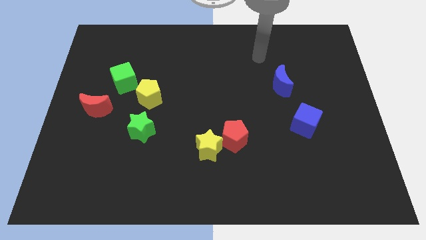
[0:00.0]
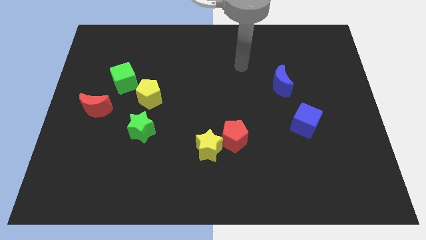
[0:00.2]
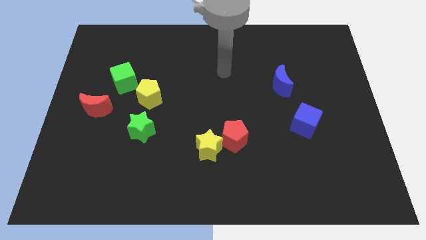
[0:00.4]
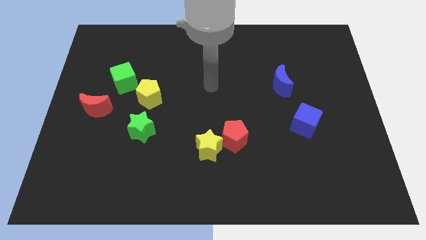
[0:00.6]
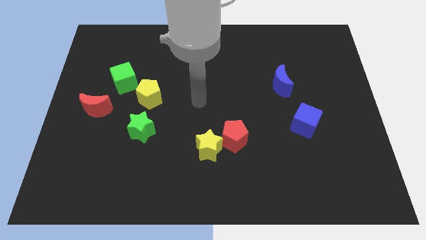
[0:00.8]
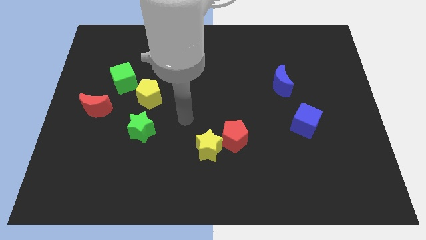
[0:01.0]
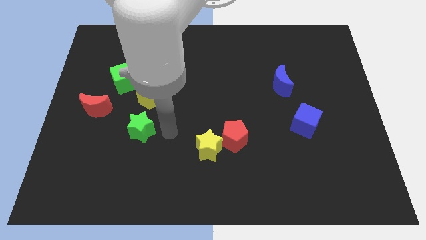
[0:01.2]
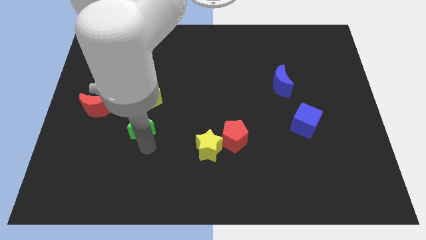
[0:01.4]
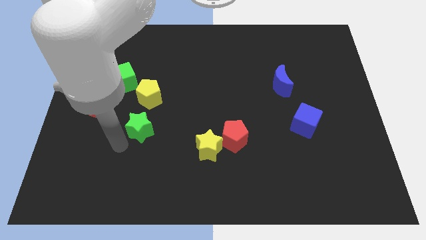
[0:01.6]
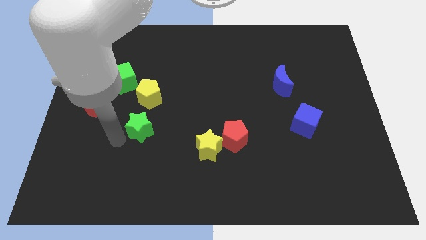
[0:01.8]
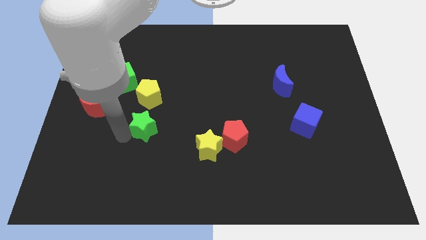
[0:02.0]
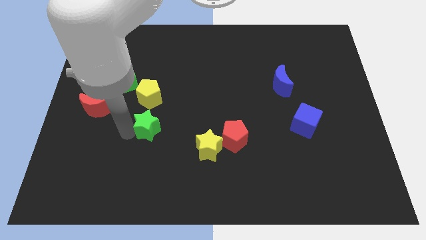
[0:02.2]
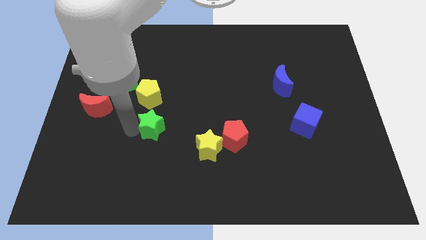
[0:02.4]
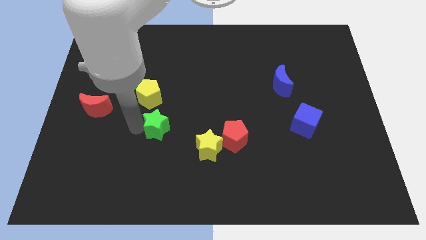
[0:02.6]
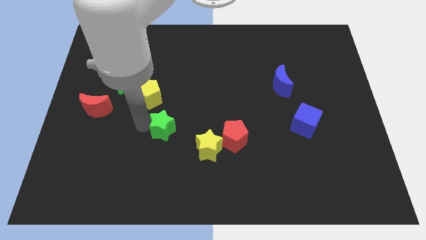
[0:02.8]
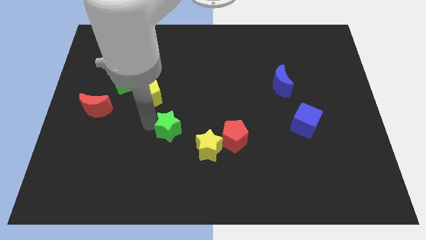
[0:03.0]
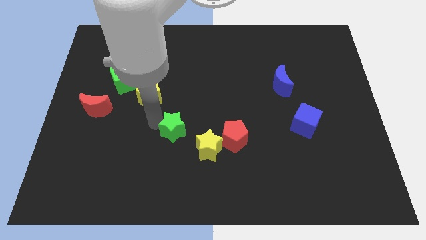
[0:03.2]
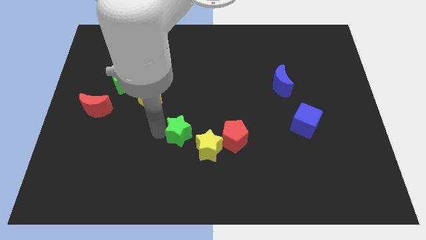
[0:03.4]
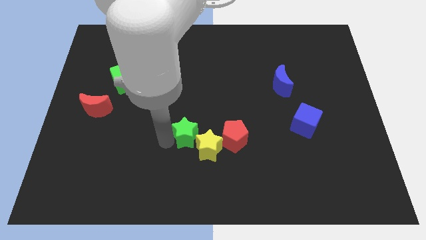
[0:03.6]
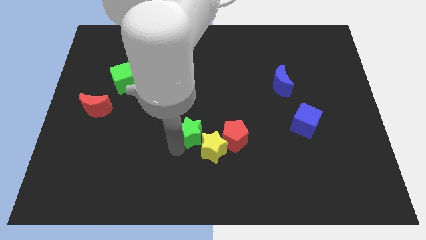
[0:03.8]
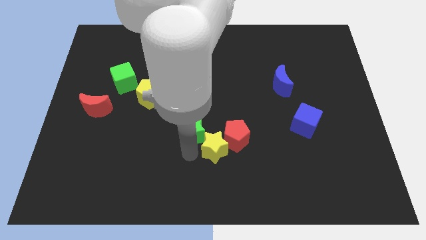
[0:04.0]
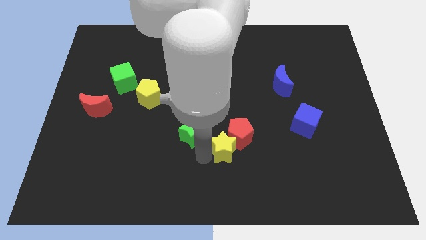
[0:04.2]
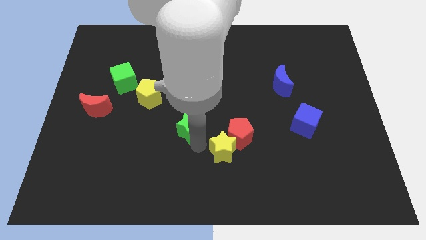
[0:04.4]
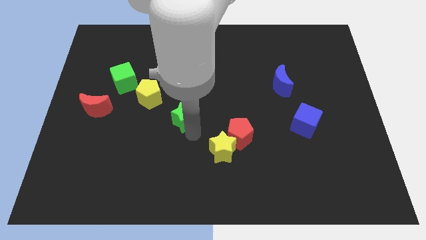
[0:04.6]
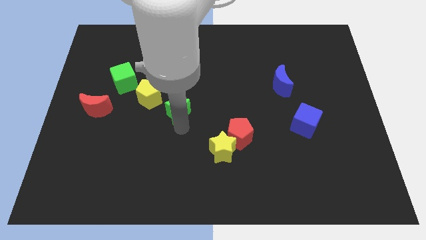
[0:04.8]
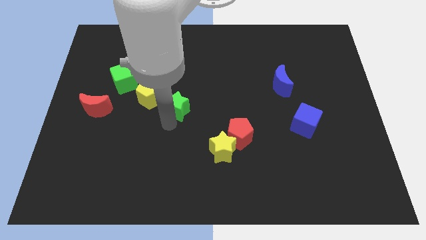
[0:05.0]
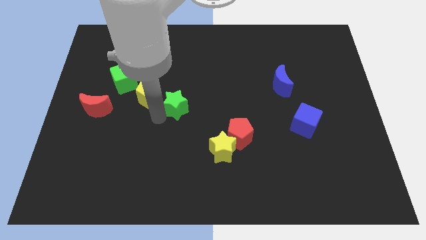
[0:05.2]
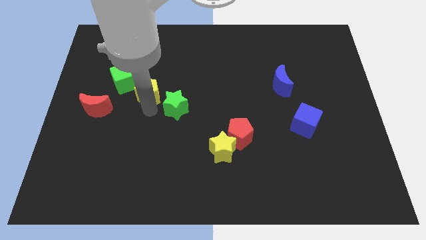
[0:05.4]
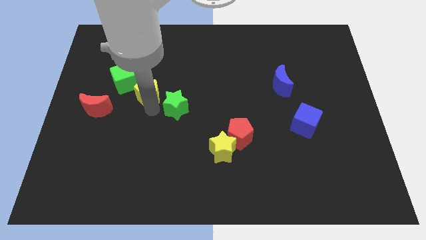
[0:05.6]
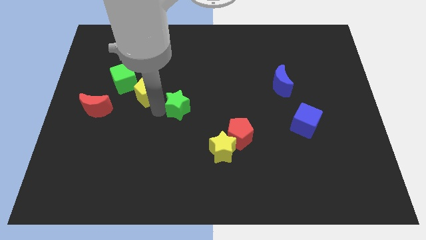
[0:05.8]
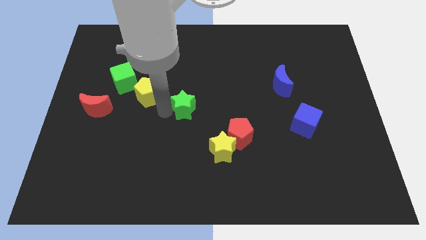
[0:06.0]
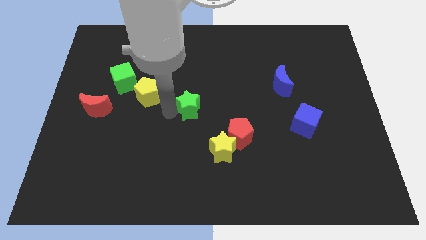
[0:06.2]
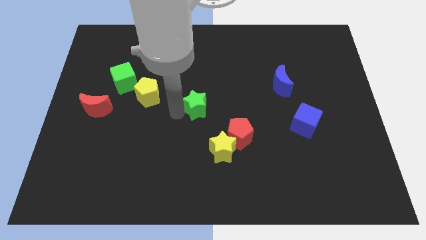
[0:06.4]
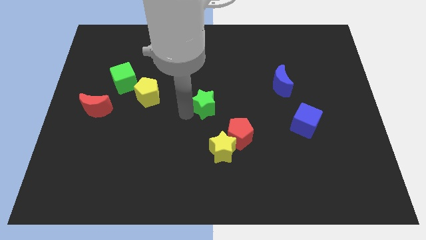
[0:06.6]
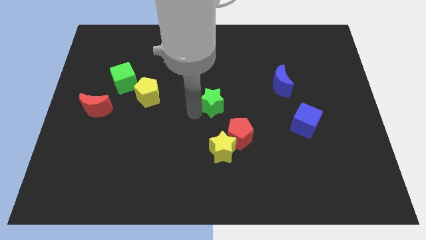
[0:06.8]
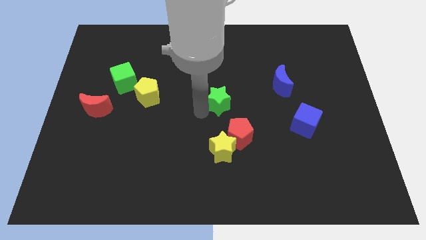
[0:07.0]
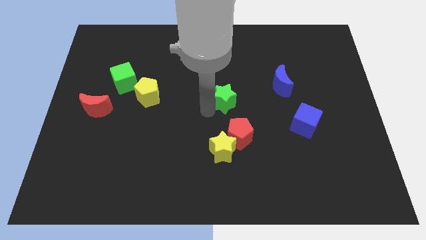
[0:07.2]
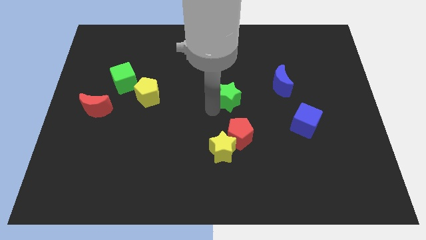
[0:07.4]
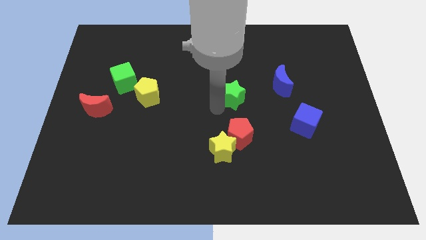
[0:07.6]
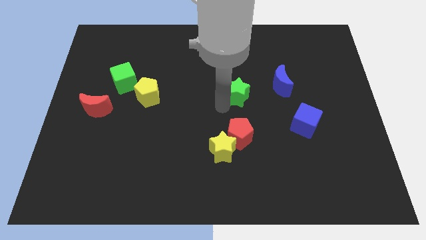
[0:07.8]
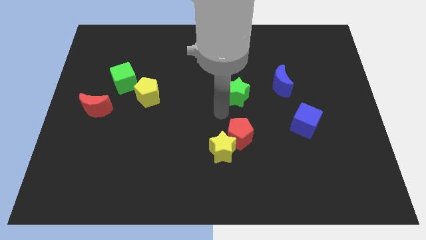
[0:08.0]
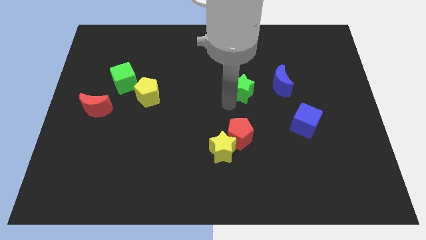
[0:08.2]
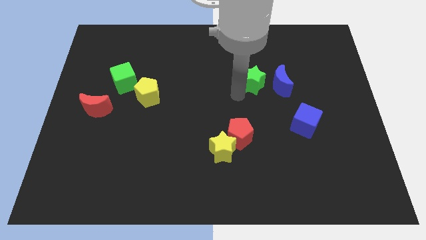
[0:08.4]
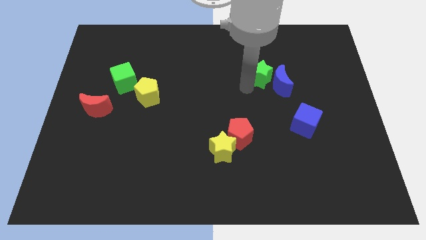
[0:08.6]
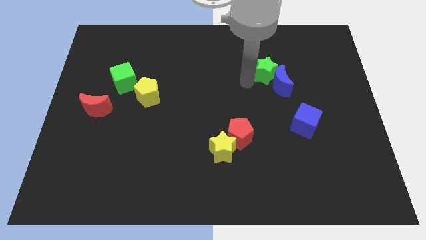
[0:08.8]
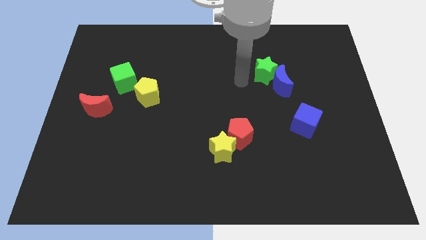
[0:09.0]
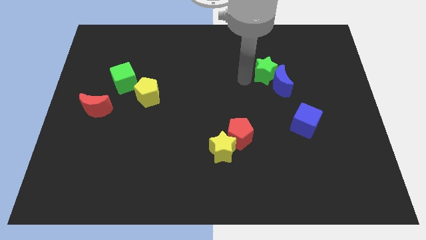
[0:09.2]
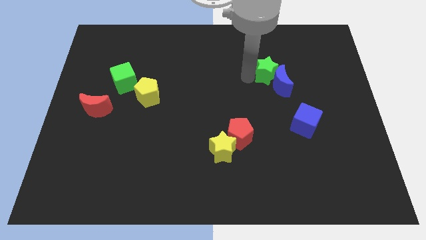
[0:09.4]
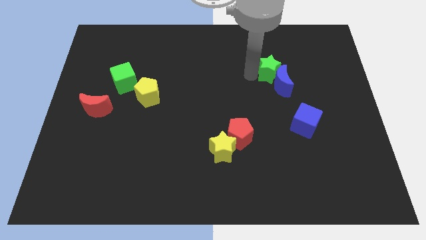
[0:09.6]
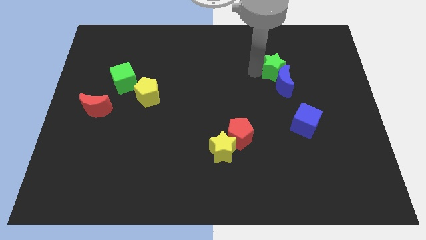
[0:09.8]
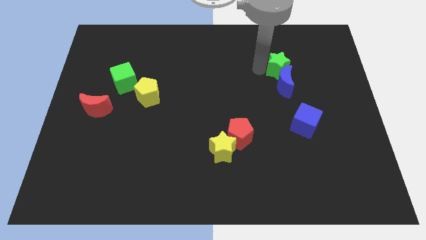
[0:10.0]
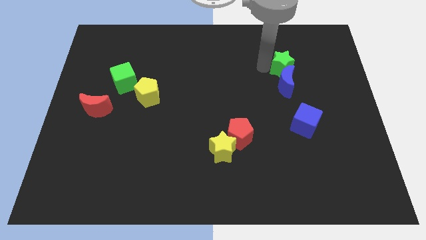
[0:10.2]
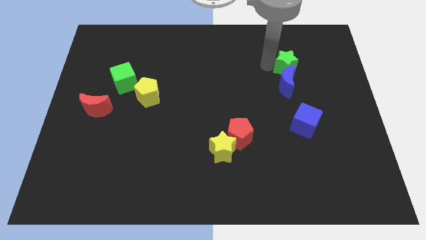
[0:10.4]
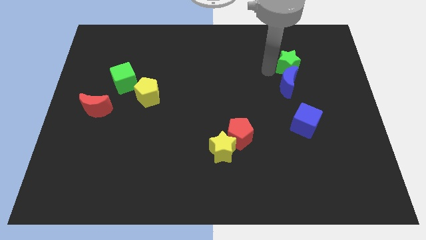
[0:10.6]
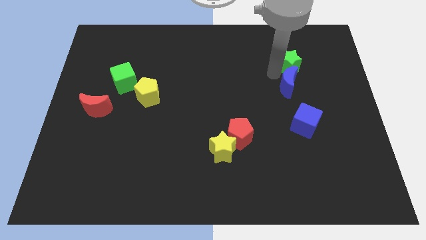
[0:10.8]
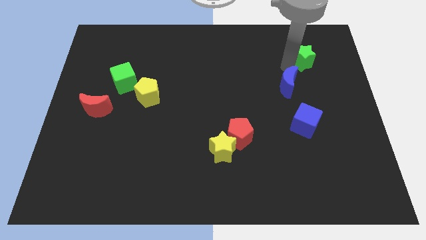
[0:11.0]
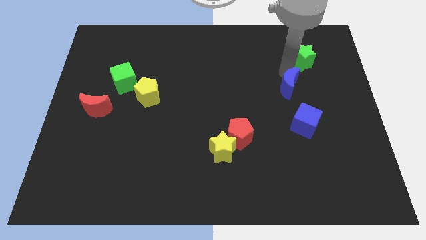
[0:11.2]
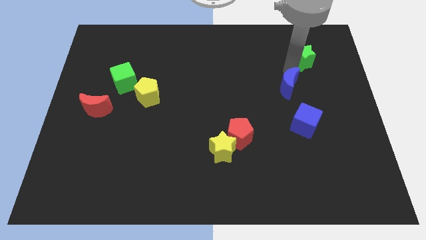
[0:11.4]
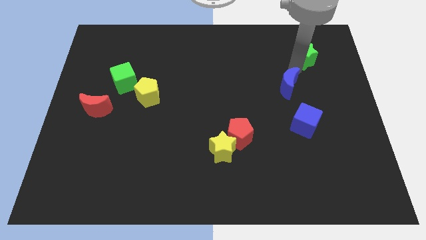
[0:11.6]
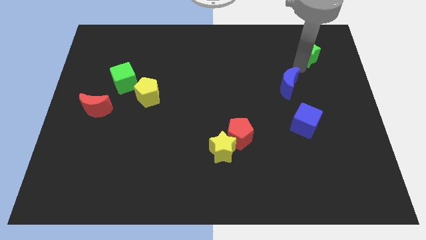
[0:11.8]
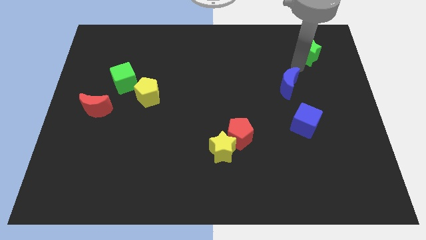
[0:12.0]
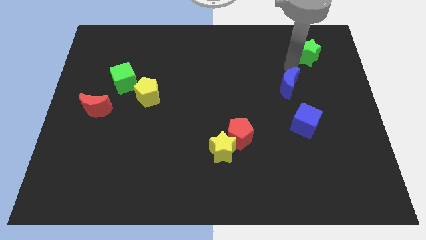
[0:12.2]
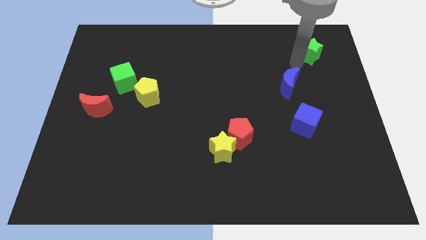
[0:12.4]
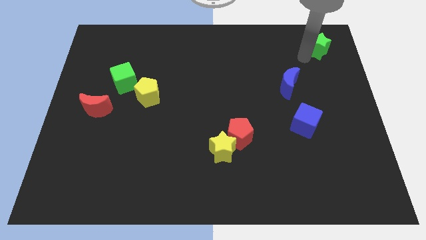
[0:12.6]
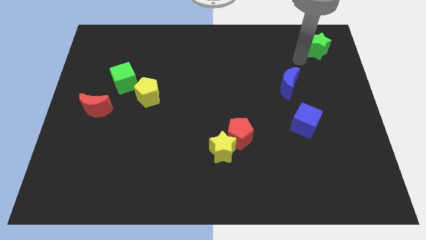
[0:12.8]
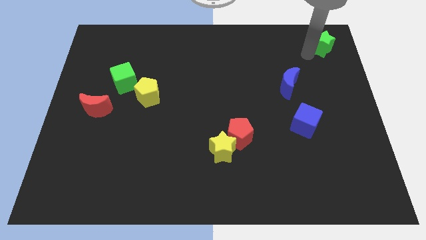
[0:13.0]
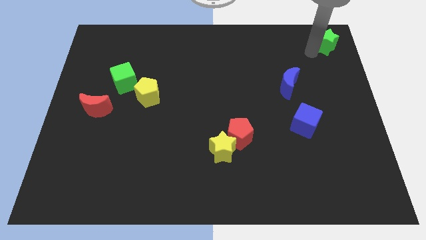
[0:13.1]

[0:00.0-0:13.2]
push the green star to the top right
